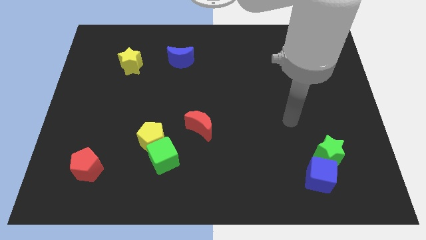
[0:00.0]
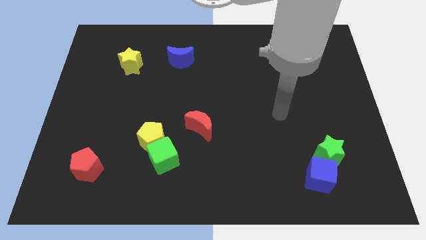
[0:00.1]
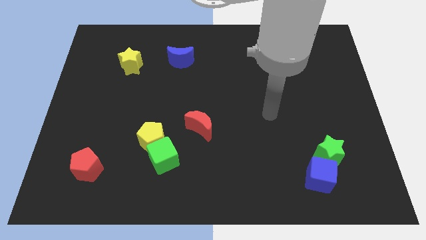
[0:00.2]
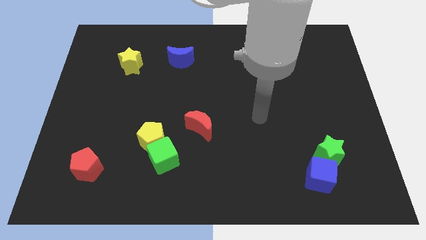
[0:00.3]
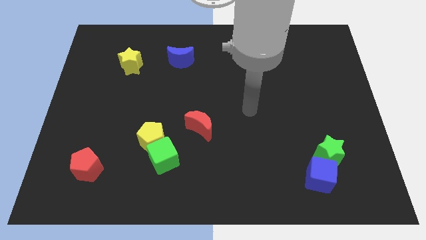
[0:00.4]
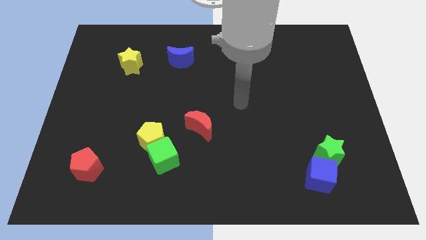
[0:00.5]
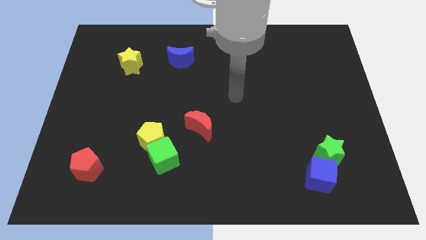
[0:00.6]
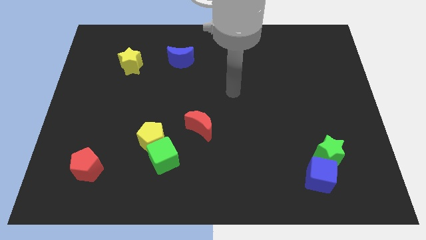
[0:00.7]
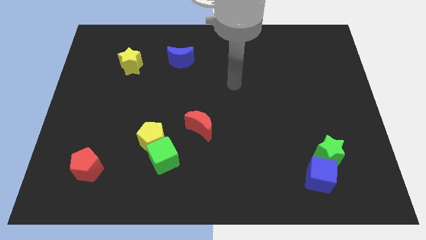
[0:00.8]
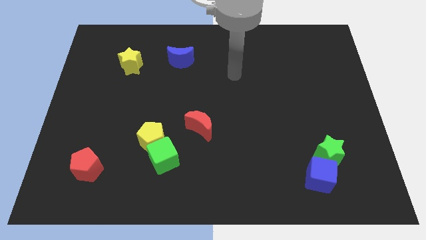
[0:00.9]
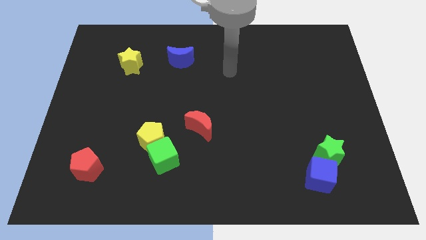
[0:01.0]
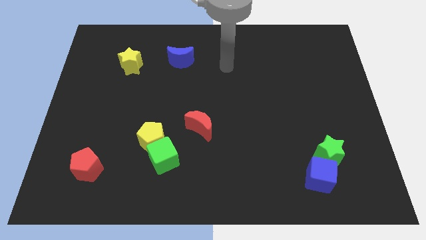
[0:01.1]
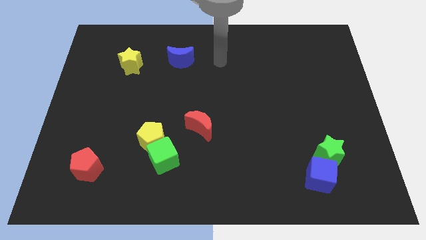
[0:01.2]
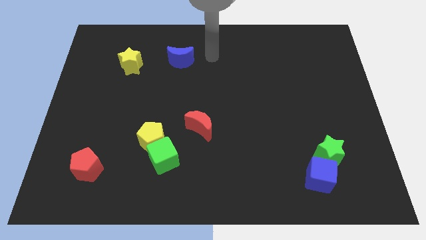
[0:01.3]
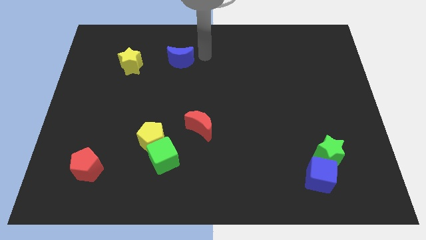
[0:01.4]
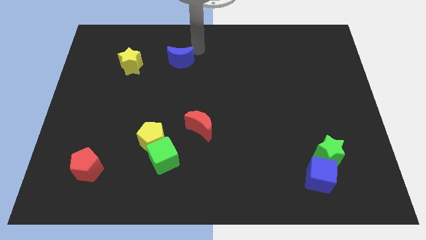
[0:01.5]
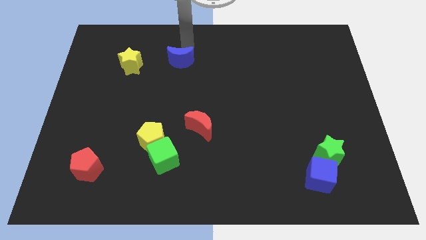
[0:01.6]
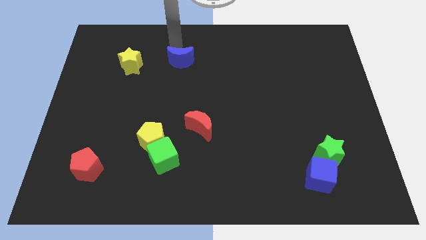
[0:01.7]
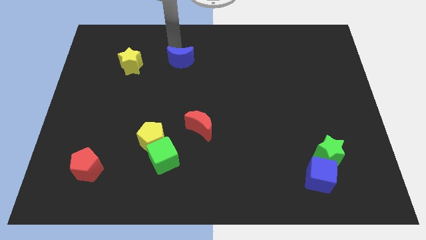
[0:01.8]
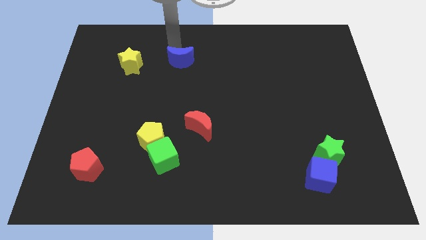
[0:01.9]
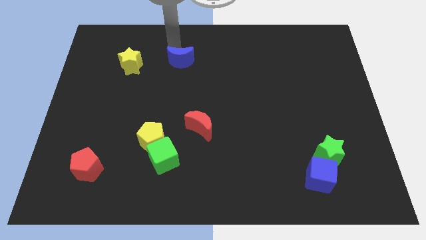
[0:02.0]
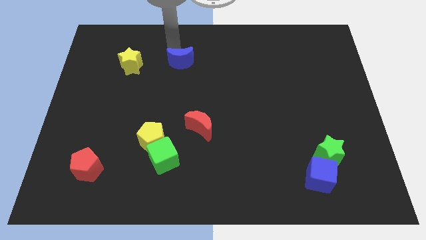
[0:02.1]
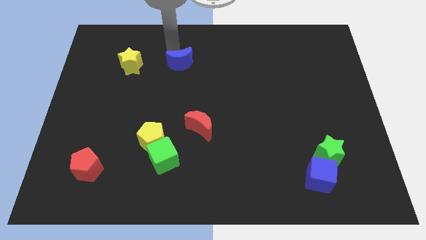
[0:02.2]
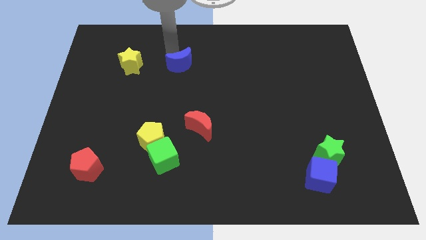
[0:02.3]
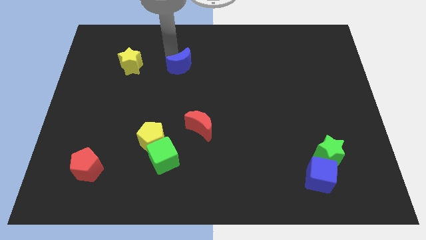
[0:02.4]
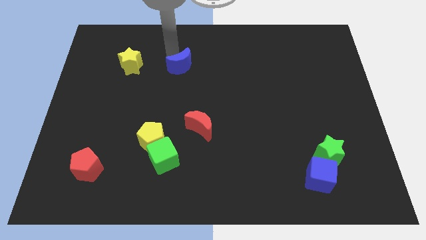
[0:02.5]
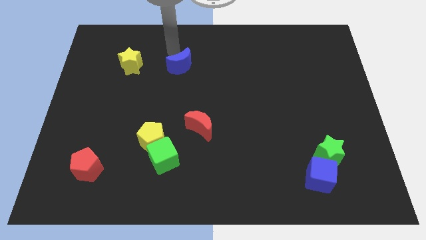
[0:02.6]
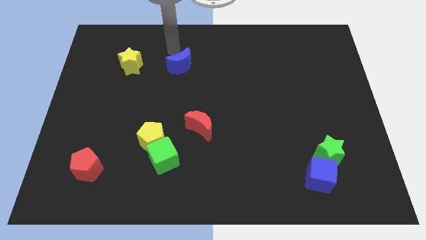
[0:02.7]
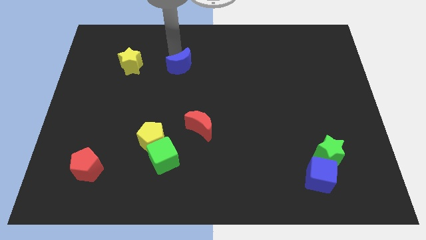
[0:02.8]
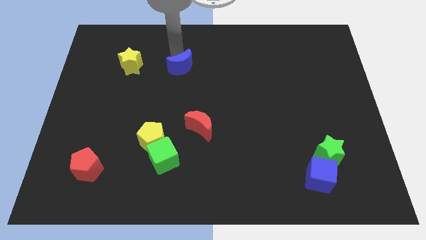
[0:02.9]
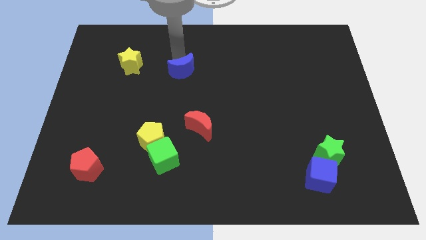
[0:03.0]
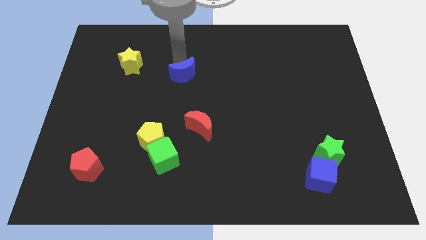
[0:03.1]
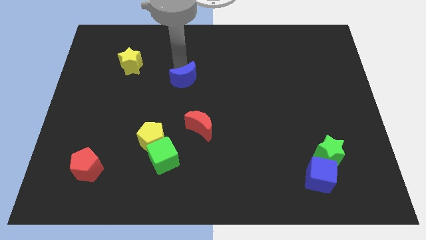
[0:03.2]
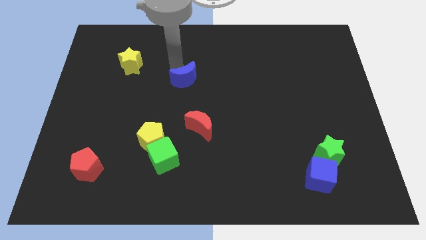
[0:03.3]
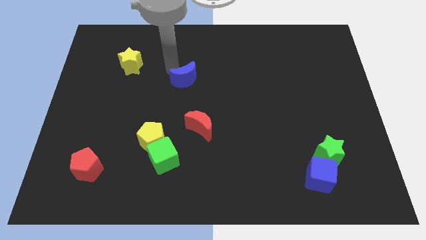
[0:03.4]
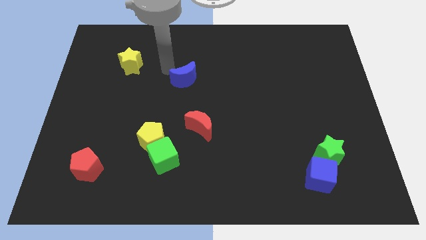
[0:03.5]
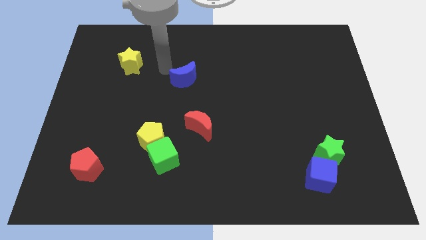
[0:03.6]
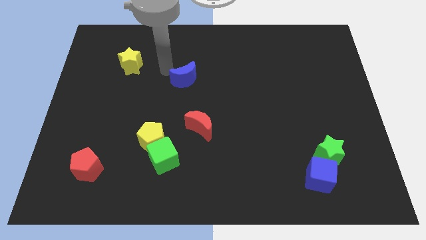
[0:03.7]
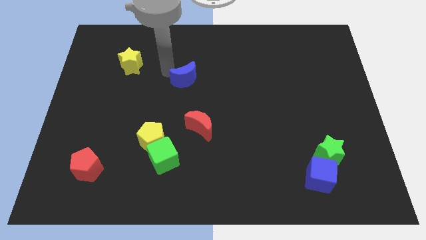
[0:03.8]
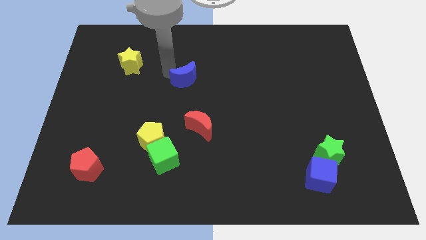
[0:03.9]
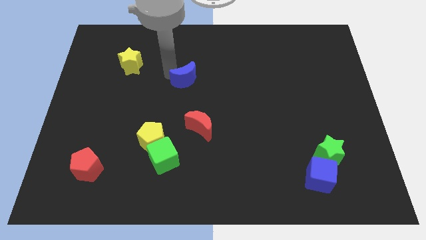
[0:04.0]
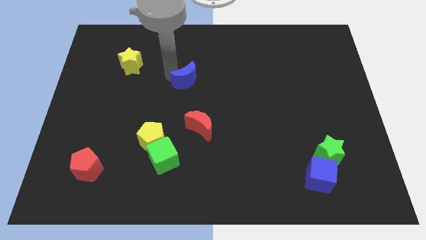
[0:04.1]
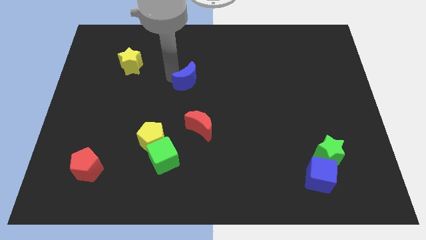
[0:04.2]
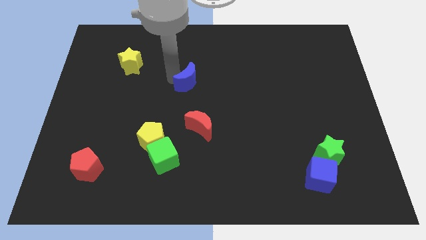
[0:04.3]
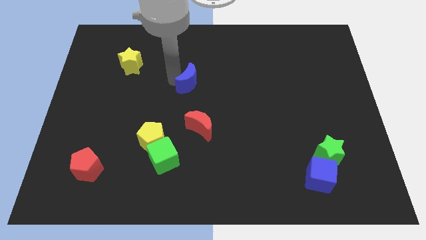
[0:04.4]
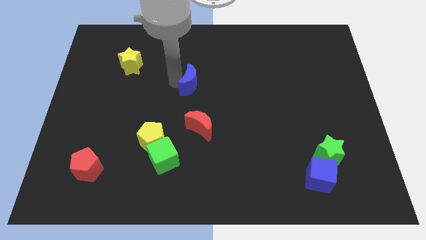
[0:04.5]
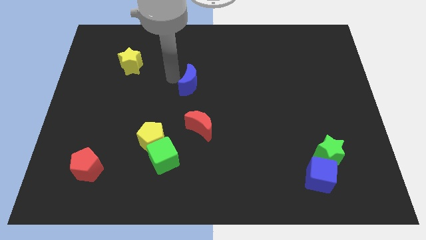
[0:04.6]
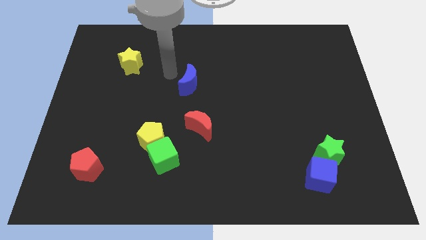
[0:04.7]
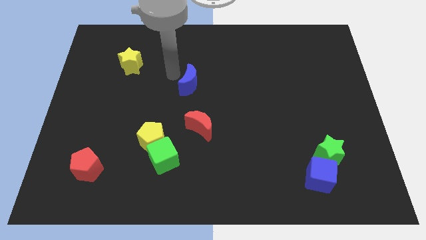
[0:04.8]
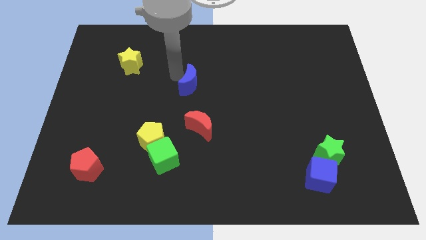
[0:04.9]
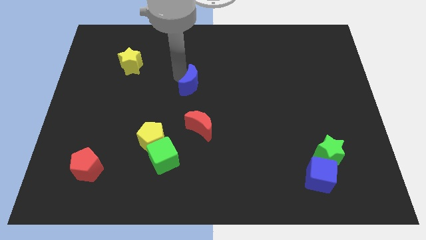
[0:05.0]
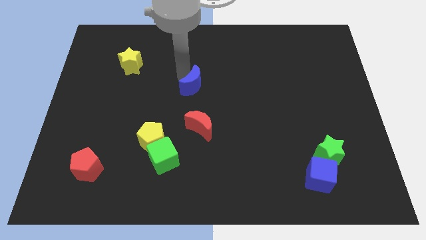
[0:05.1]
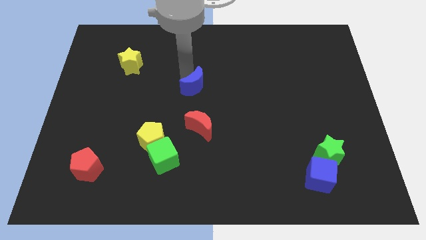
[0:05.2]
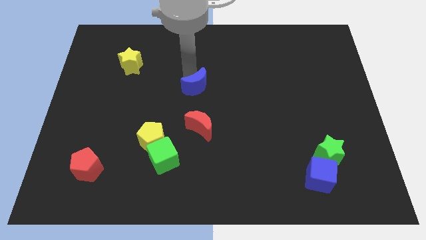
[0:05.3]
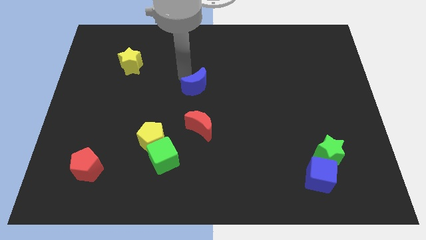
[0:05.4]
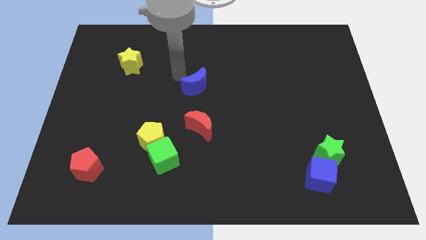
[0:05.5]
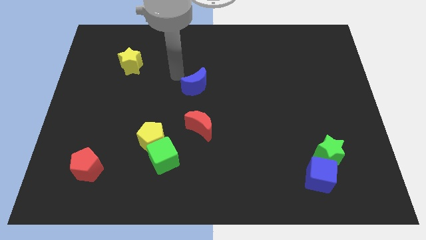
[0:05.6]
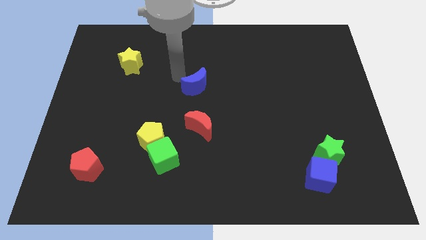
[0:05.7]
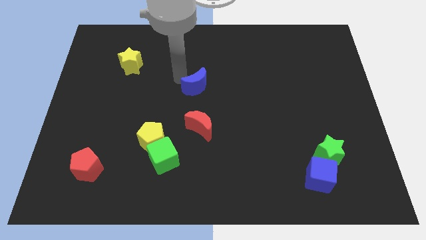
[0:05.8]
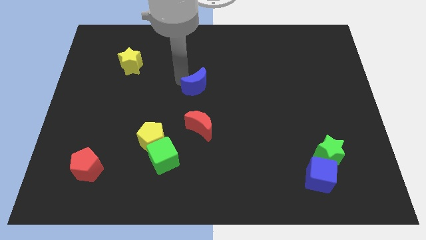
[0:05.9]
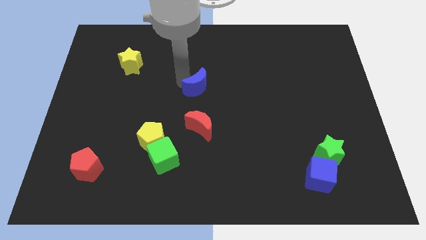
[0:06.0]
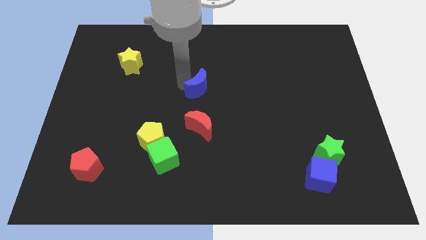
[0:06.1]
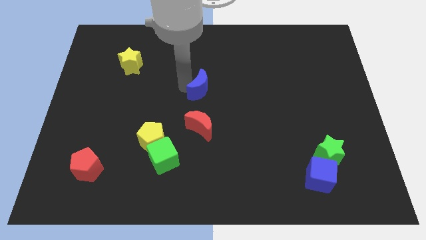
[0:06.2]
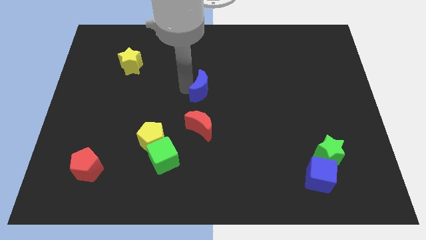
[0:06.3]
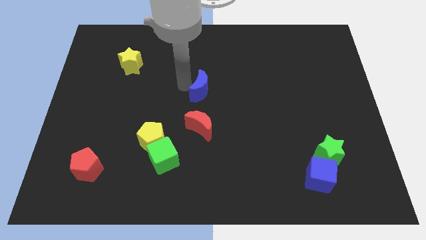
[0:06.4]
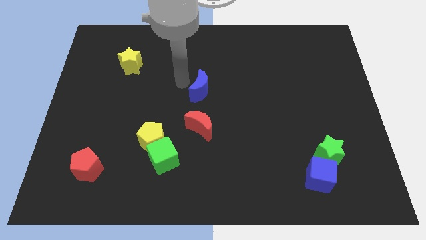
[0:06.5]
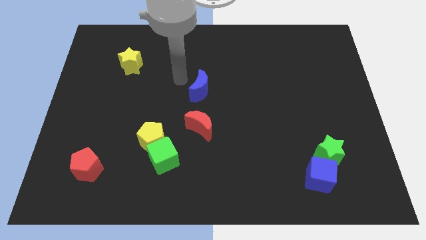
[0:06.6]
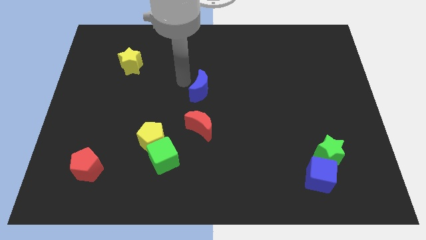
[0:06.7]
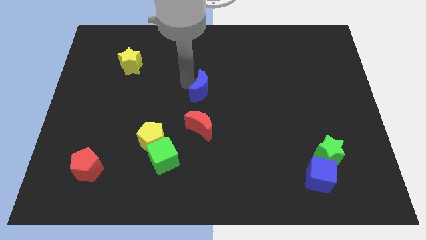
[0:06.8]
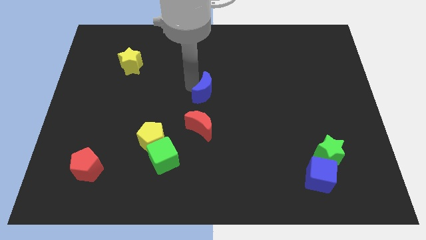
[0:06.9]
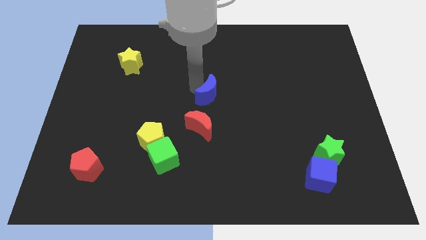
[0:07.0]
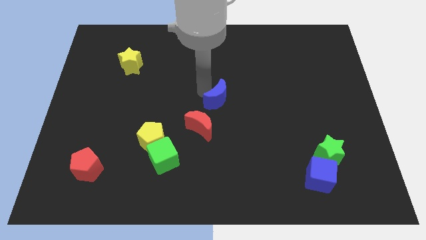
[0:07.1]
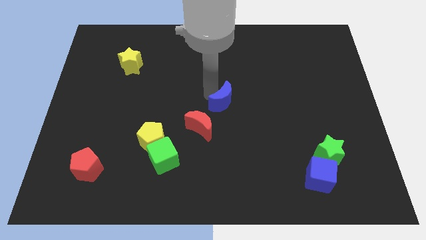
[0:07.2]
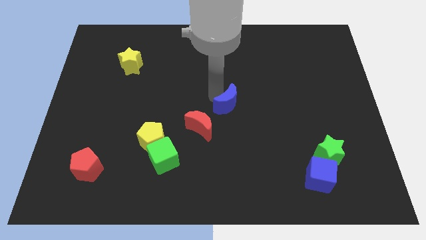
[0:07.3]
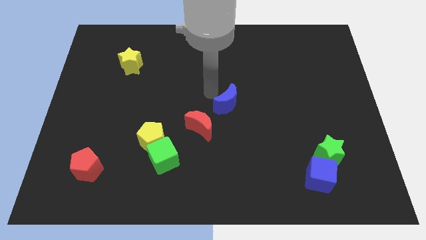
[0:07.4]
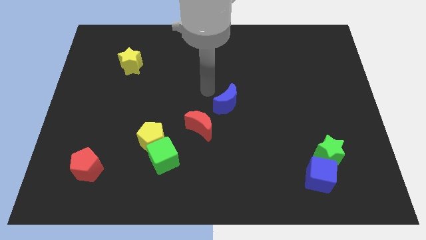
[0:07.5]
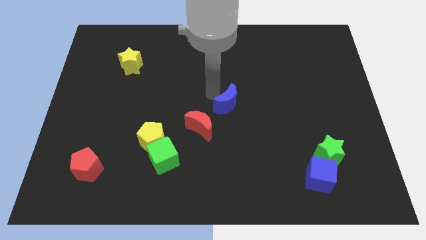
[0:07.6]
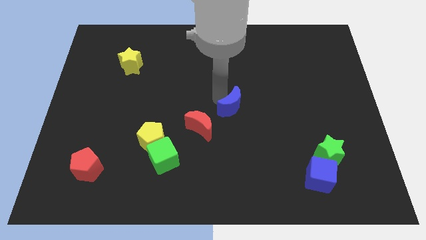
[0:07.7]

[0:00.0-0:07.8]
push the blue moon down and right diagonally
